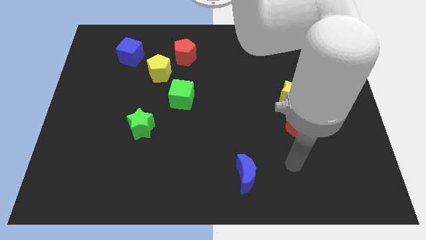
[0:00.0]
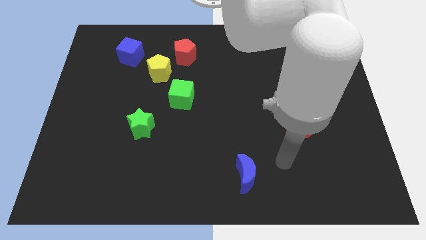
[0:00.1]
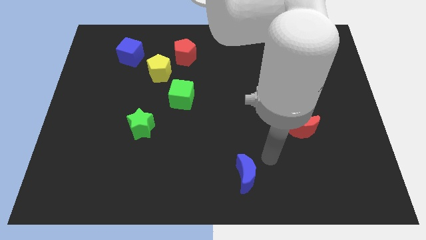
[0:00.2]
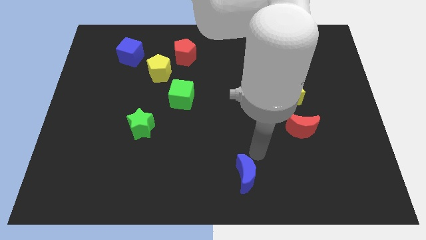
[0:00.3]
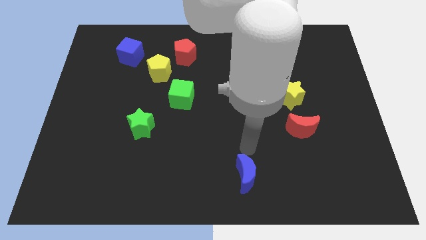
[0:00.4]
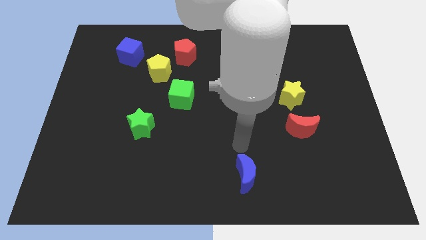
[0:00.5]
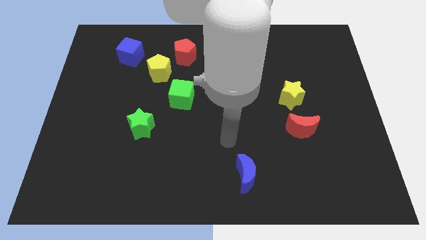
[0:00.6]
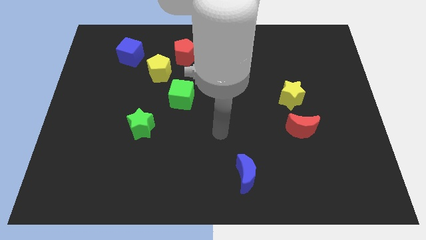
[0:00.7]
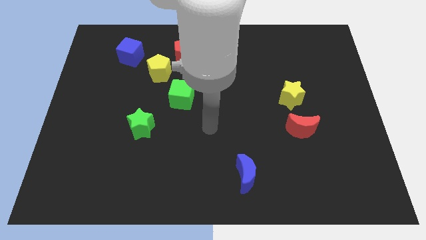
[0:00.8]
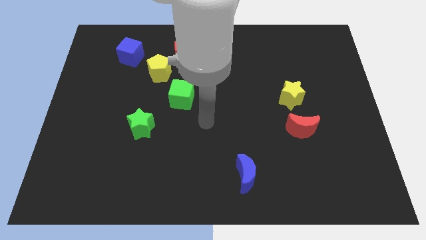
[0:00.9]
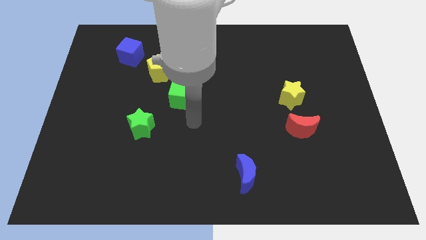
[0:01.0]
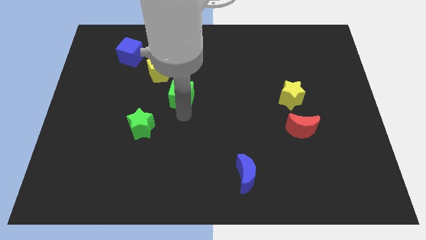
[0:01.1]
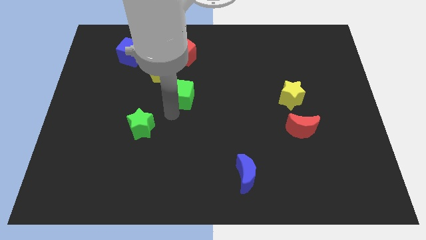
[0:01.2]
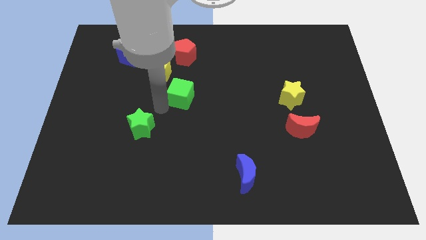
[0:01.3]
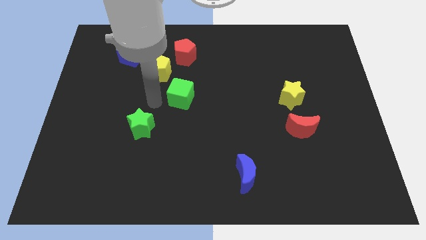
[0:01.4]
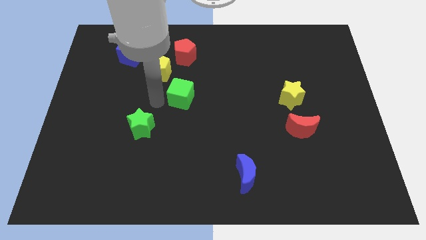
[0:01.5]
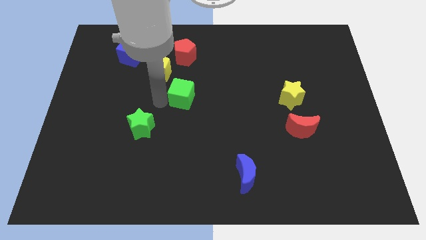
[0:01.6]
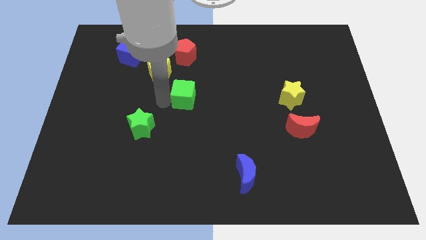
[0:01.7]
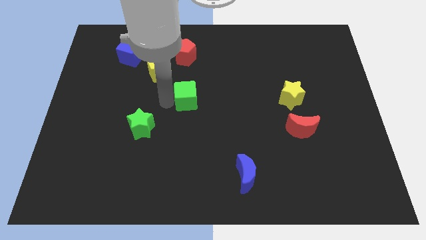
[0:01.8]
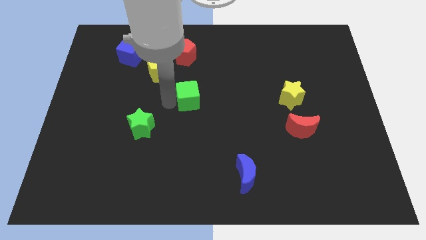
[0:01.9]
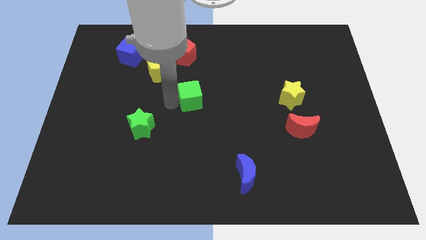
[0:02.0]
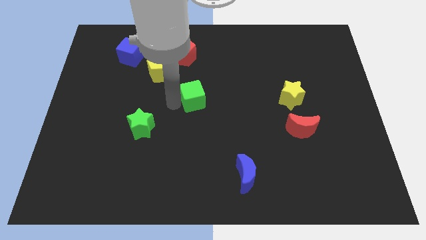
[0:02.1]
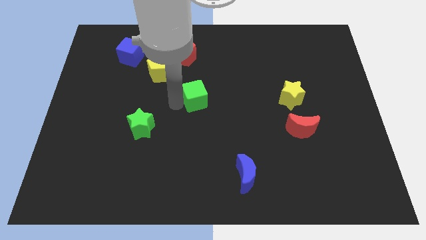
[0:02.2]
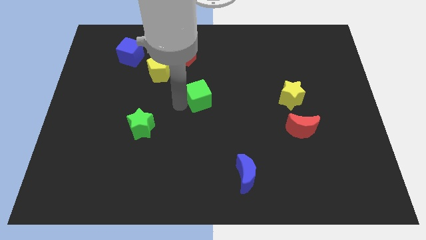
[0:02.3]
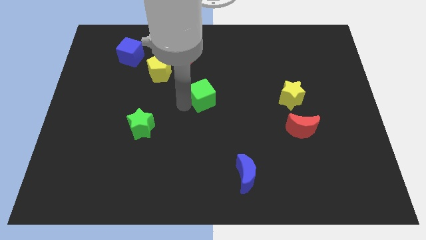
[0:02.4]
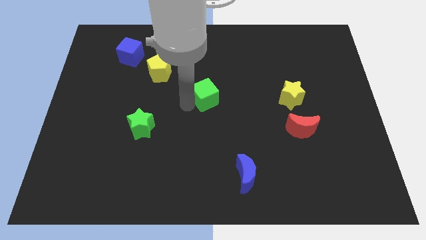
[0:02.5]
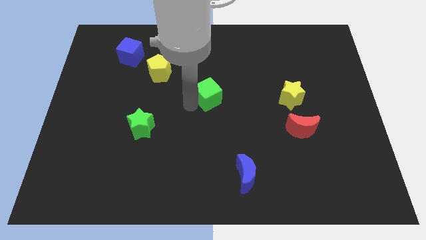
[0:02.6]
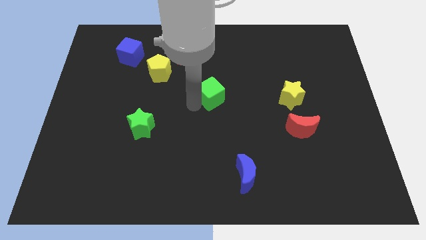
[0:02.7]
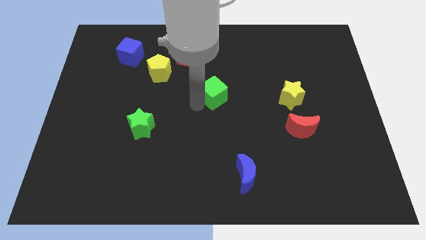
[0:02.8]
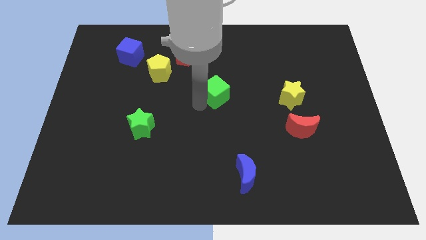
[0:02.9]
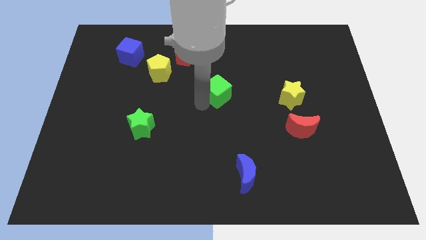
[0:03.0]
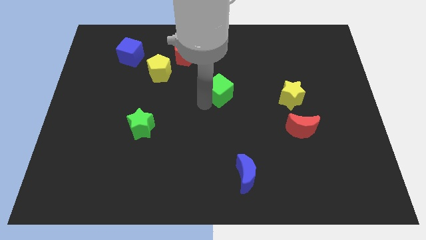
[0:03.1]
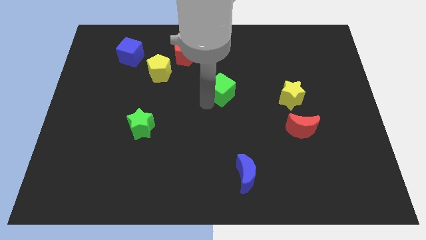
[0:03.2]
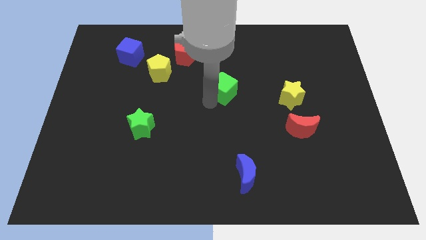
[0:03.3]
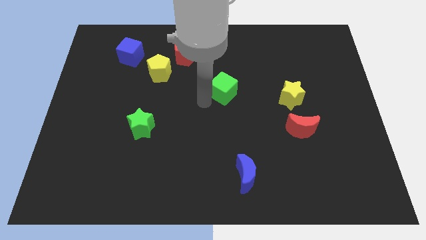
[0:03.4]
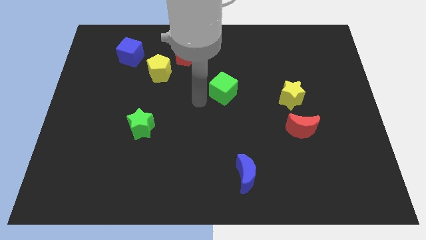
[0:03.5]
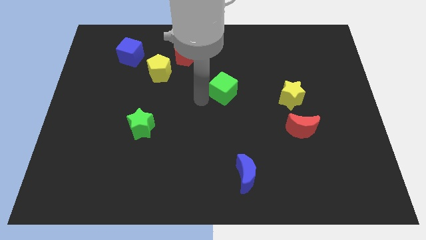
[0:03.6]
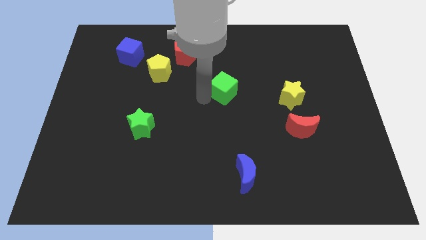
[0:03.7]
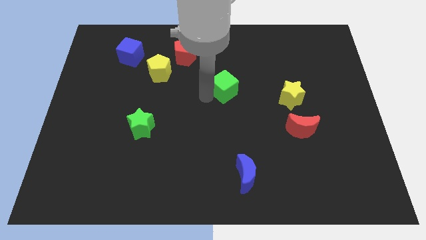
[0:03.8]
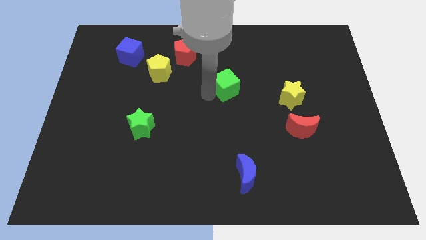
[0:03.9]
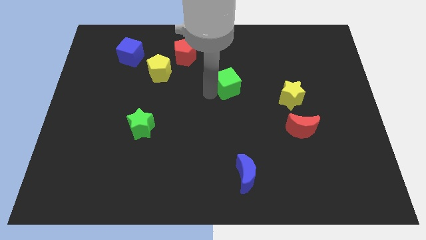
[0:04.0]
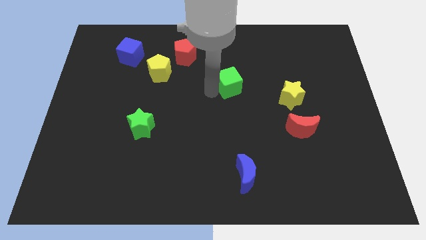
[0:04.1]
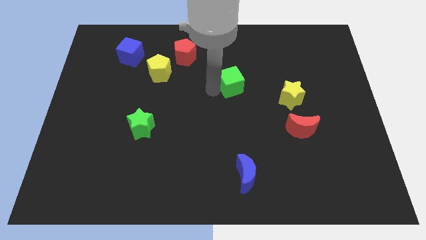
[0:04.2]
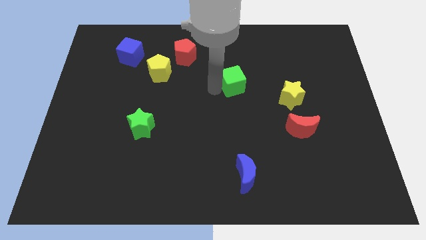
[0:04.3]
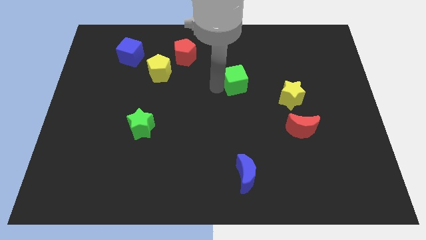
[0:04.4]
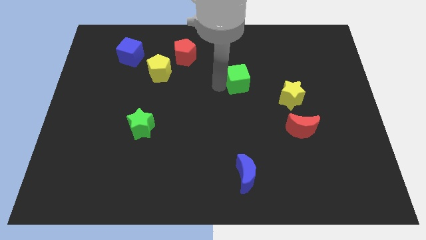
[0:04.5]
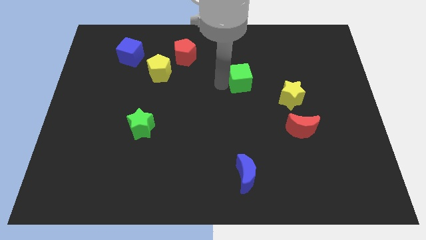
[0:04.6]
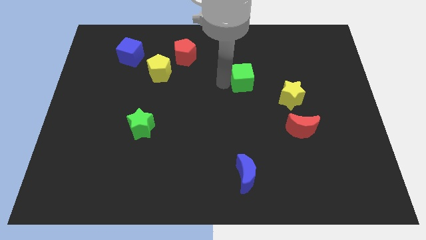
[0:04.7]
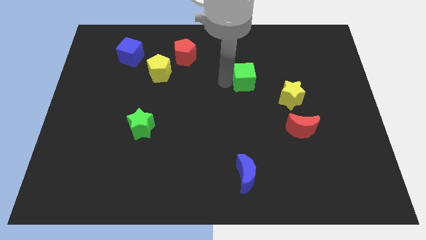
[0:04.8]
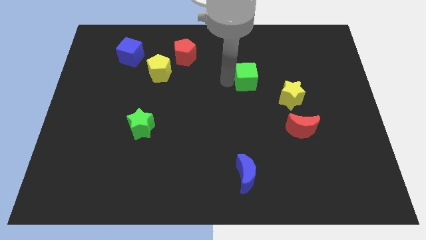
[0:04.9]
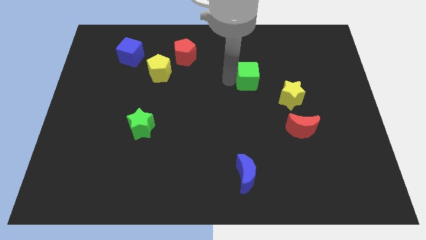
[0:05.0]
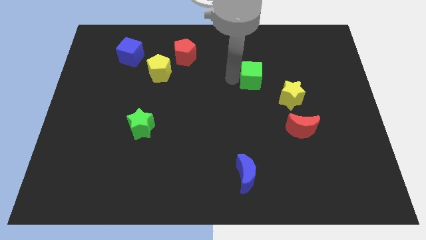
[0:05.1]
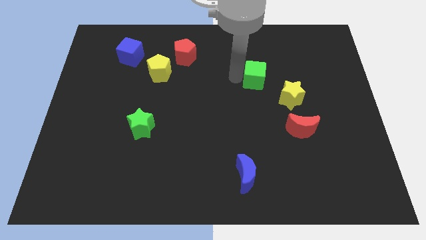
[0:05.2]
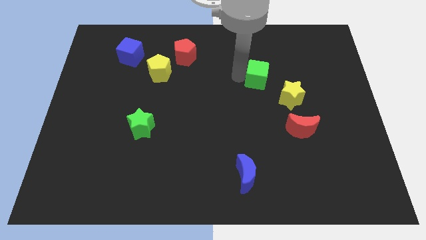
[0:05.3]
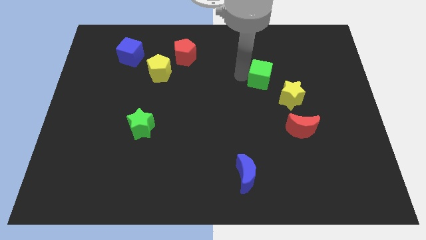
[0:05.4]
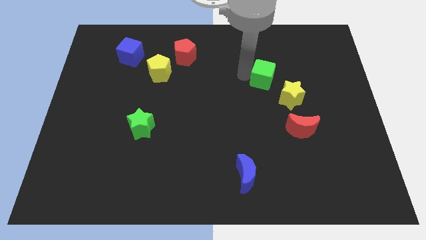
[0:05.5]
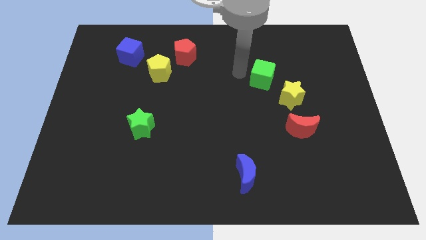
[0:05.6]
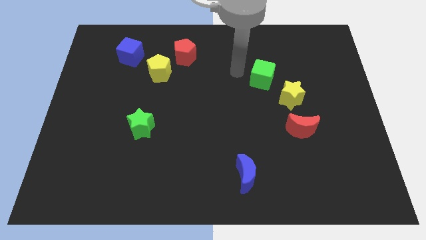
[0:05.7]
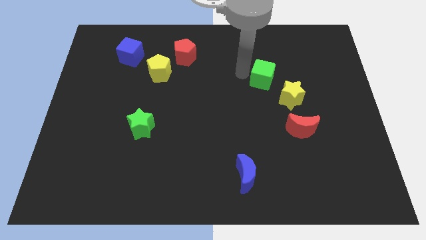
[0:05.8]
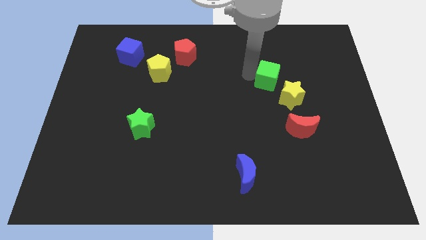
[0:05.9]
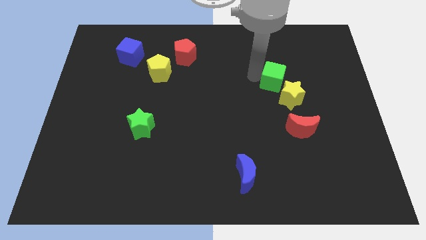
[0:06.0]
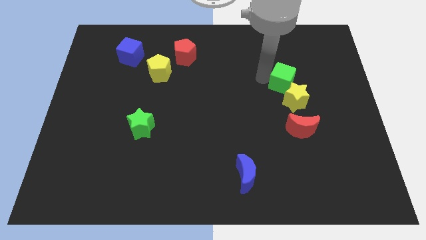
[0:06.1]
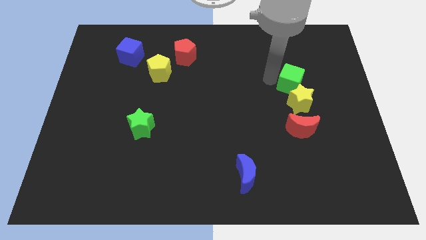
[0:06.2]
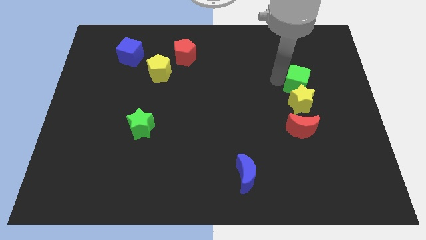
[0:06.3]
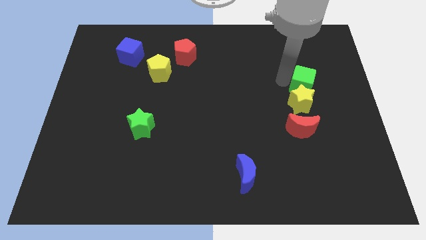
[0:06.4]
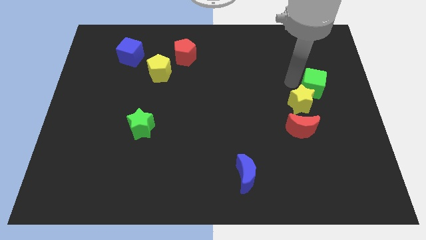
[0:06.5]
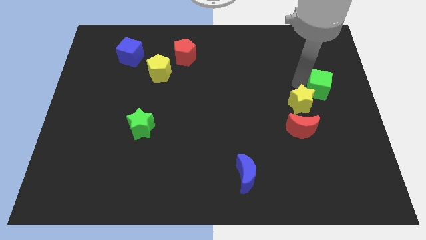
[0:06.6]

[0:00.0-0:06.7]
push the green cube to the right side
